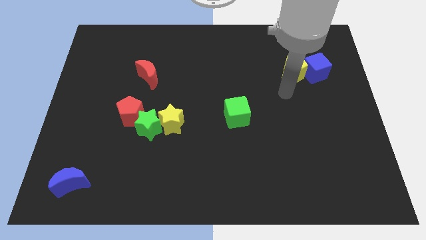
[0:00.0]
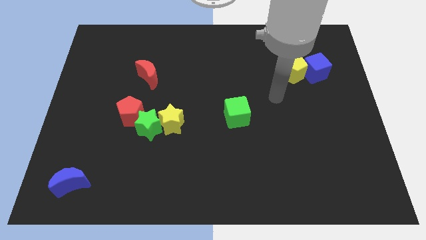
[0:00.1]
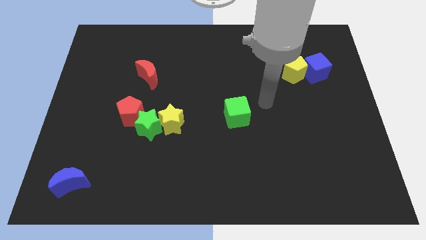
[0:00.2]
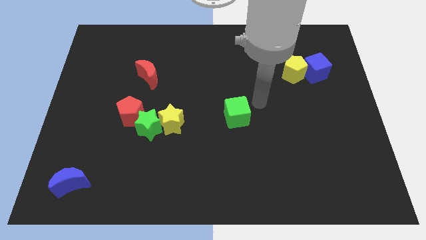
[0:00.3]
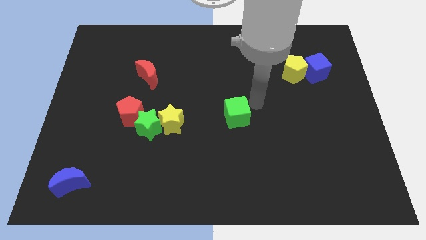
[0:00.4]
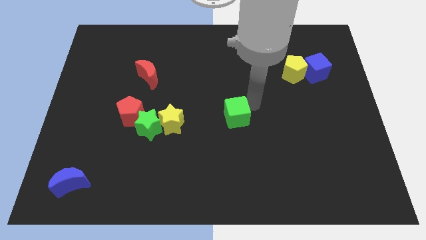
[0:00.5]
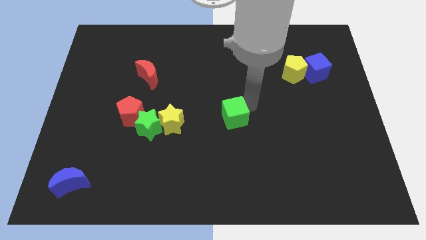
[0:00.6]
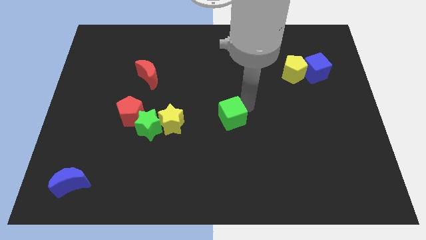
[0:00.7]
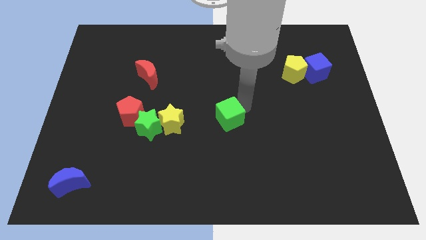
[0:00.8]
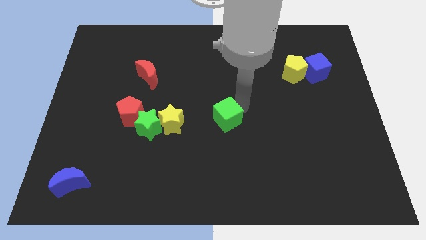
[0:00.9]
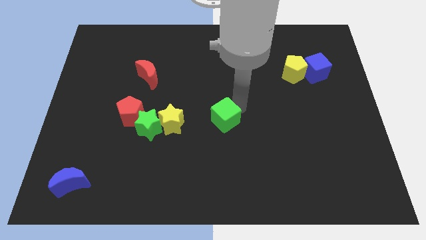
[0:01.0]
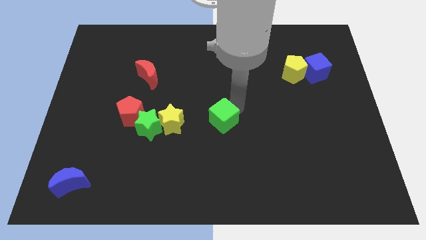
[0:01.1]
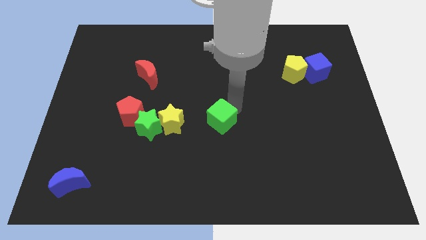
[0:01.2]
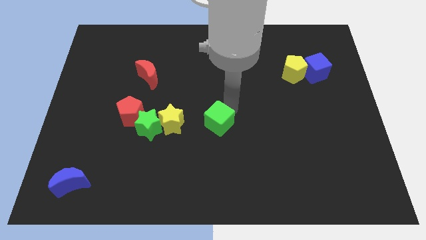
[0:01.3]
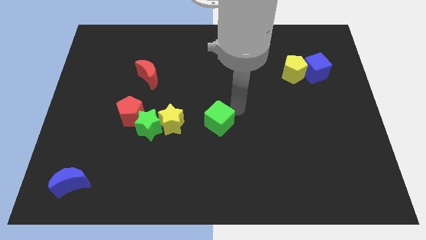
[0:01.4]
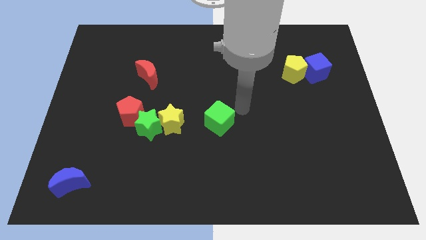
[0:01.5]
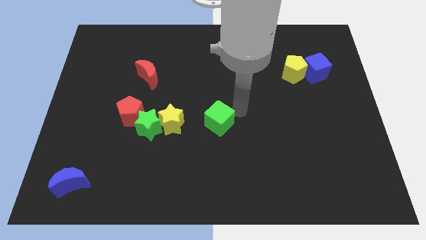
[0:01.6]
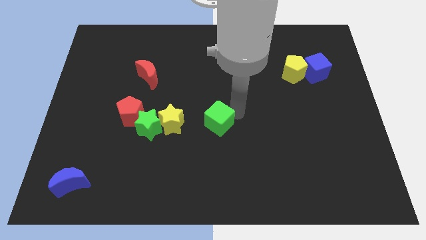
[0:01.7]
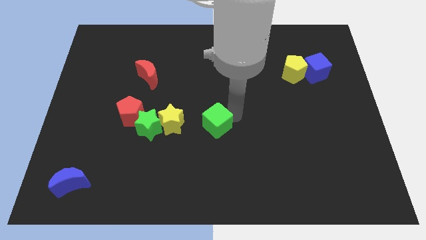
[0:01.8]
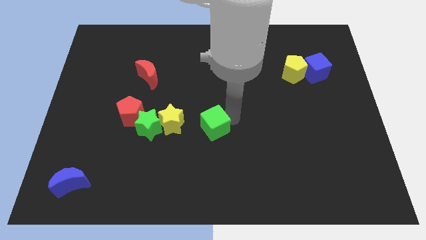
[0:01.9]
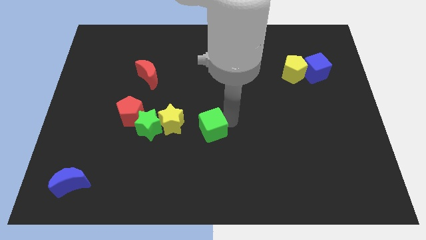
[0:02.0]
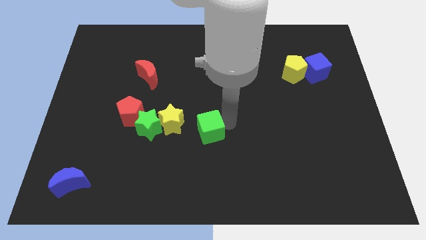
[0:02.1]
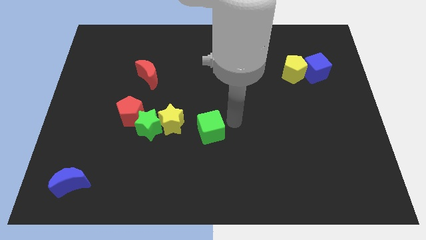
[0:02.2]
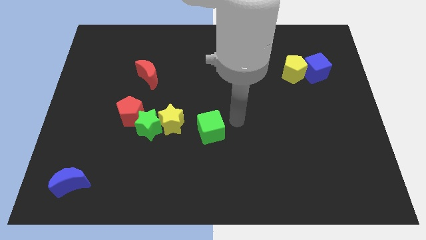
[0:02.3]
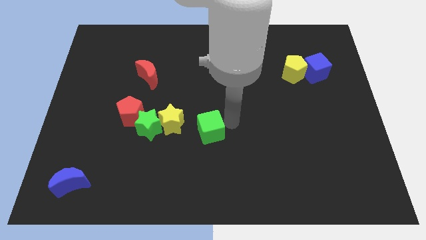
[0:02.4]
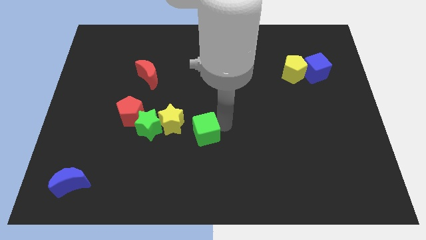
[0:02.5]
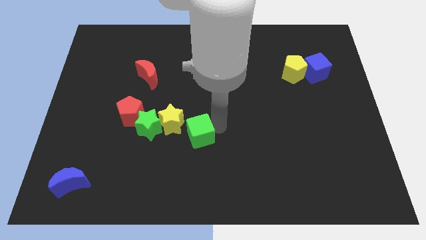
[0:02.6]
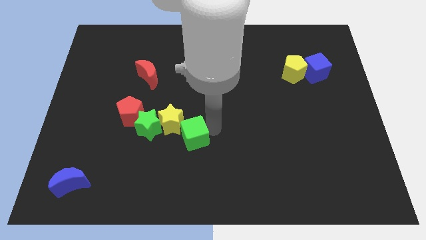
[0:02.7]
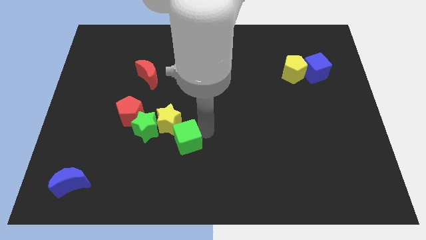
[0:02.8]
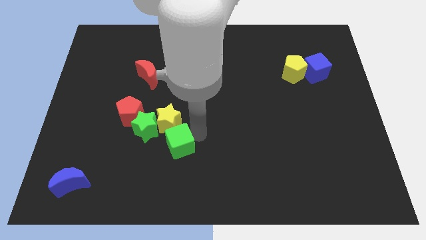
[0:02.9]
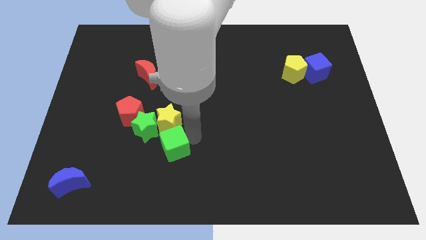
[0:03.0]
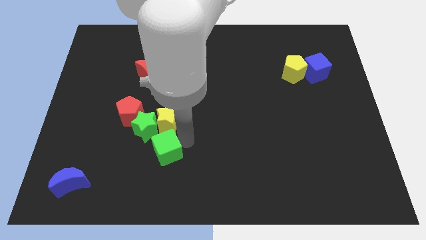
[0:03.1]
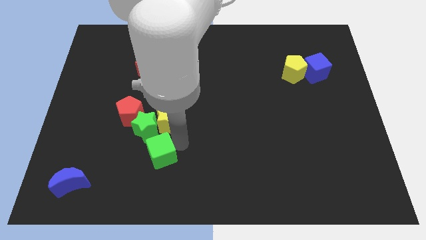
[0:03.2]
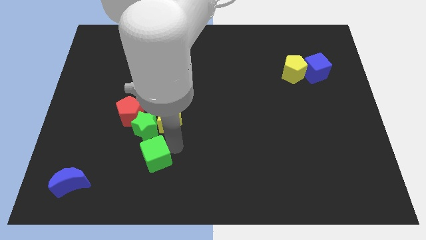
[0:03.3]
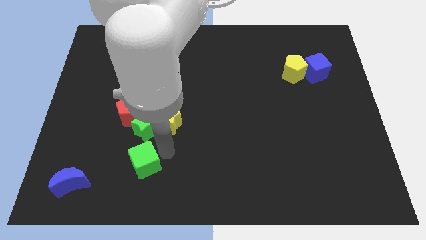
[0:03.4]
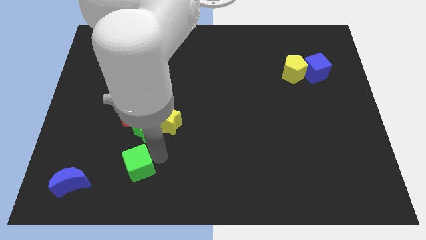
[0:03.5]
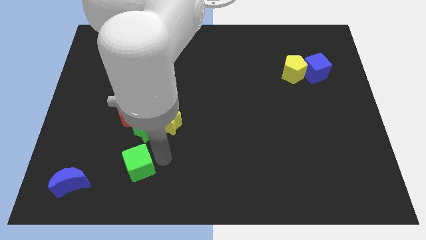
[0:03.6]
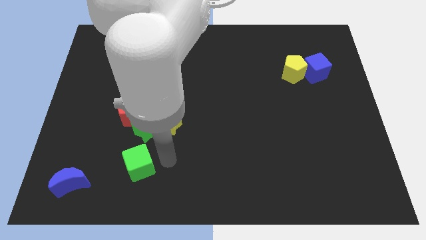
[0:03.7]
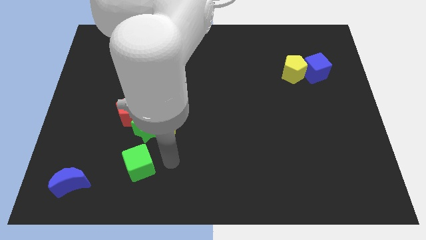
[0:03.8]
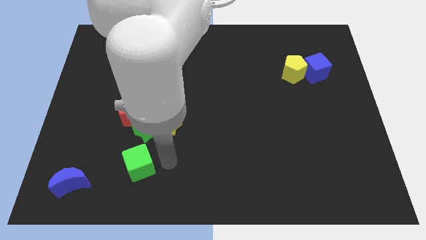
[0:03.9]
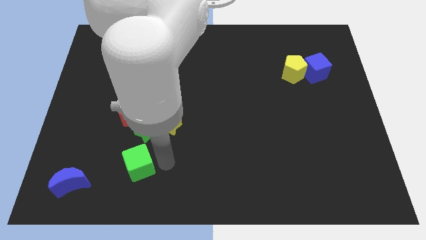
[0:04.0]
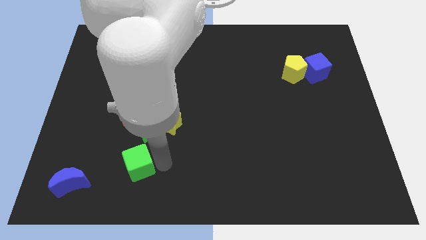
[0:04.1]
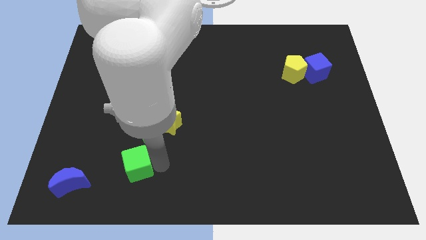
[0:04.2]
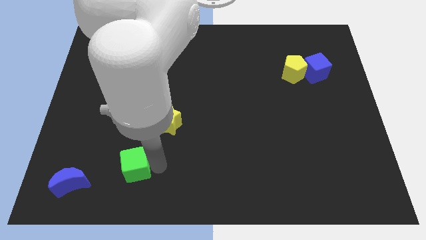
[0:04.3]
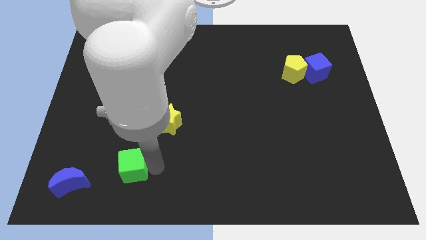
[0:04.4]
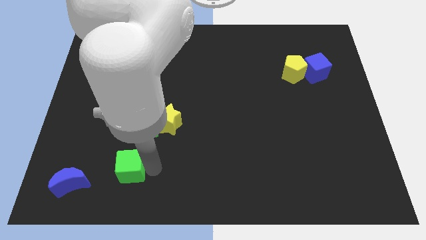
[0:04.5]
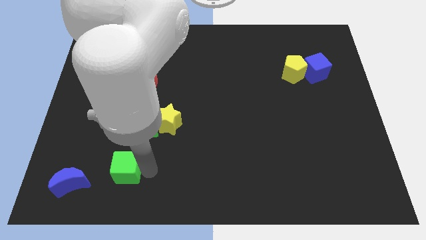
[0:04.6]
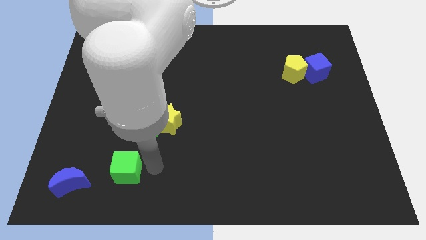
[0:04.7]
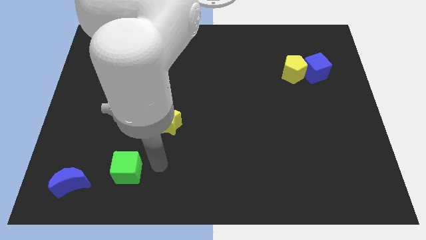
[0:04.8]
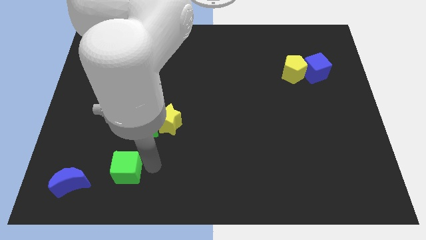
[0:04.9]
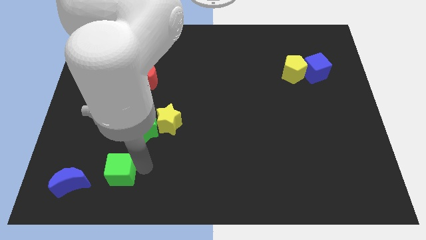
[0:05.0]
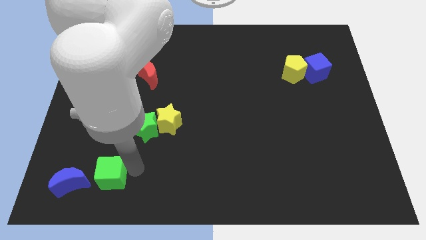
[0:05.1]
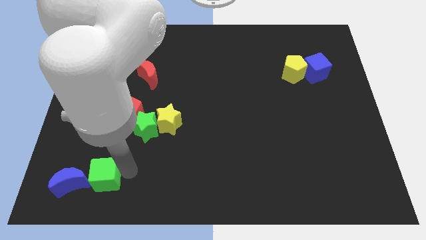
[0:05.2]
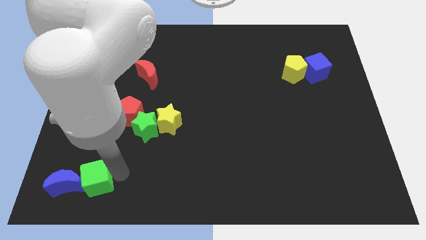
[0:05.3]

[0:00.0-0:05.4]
push the green cube to the blue moon

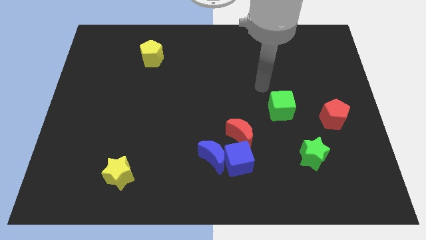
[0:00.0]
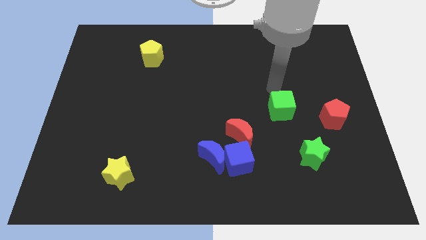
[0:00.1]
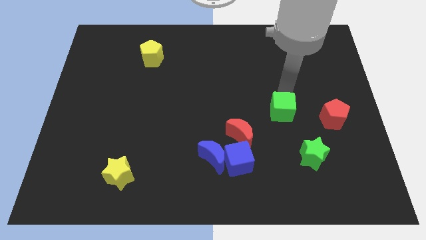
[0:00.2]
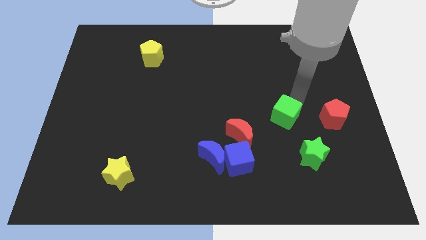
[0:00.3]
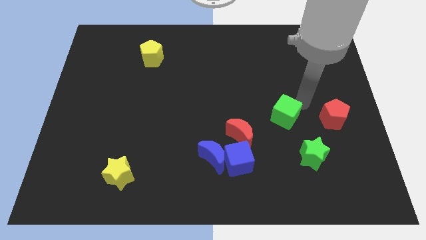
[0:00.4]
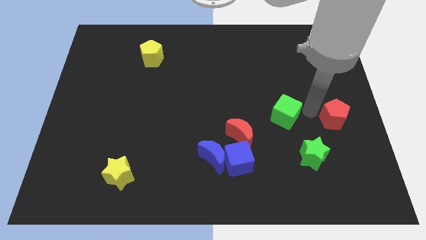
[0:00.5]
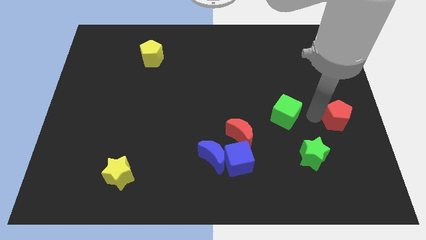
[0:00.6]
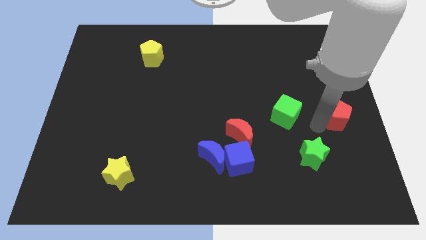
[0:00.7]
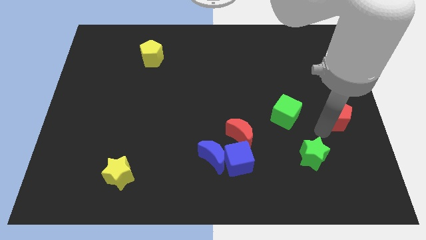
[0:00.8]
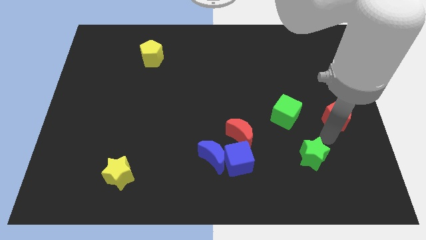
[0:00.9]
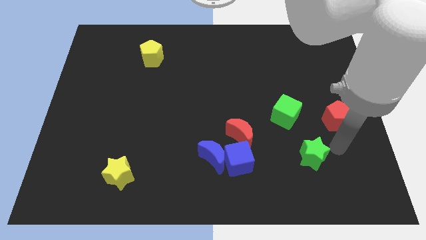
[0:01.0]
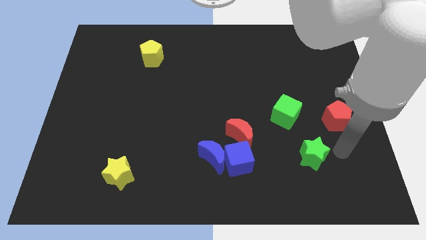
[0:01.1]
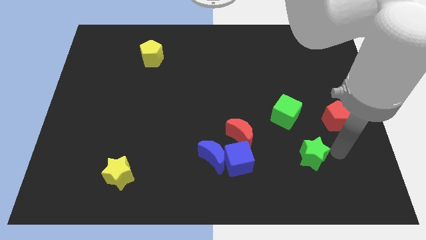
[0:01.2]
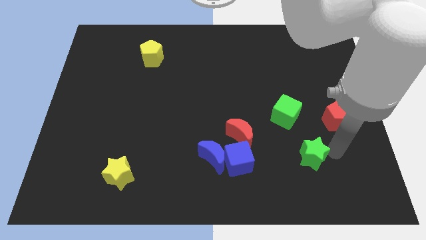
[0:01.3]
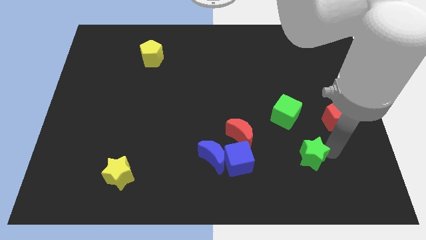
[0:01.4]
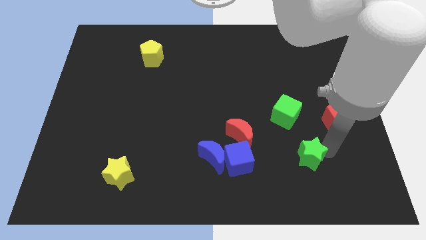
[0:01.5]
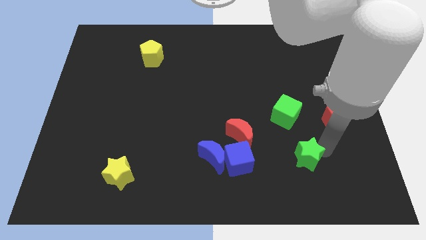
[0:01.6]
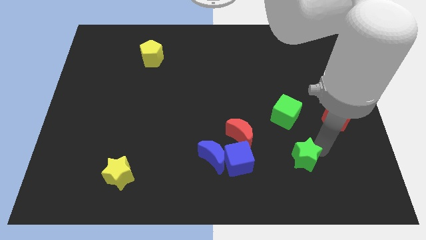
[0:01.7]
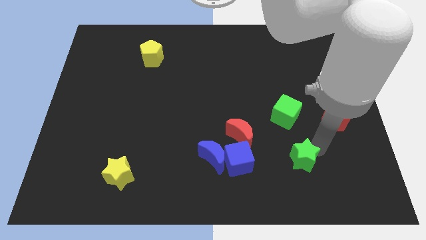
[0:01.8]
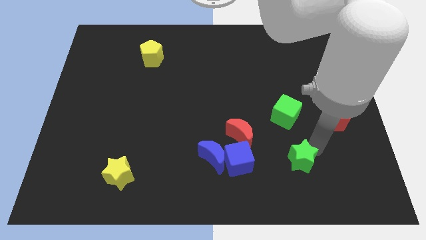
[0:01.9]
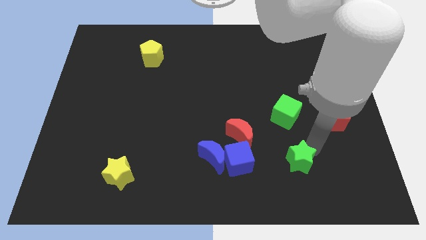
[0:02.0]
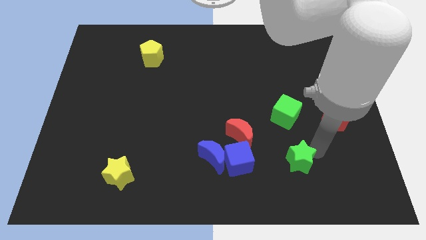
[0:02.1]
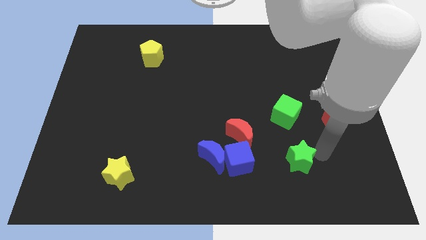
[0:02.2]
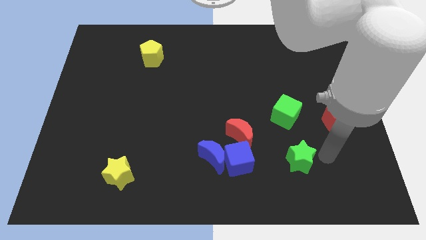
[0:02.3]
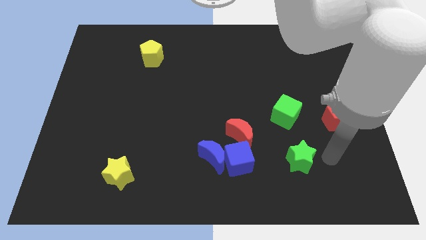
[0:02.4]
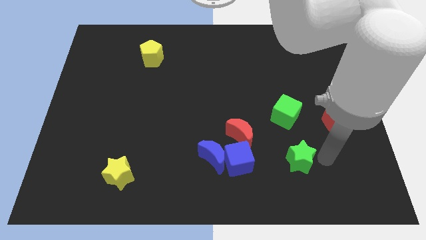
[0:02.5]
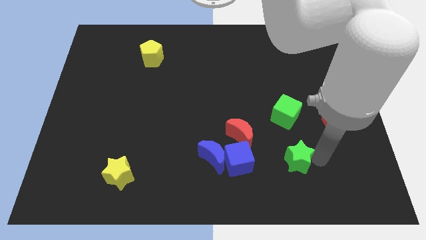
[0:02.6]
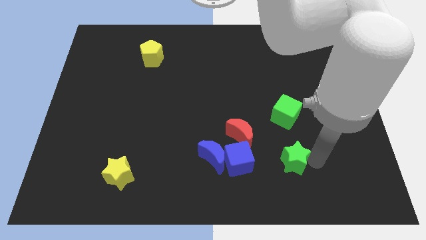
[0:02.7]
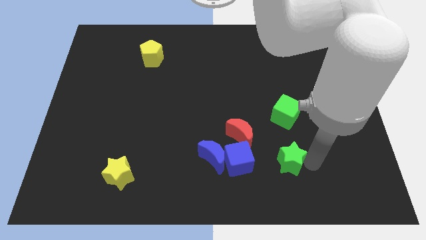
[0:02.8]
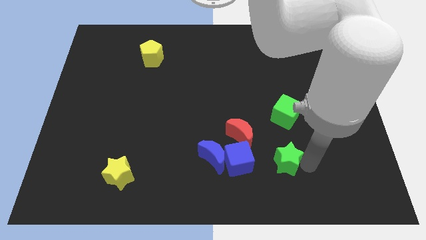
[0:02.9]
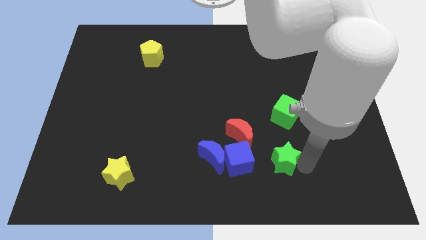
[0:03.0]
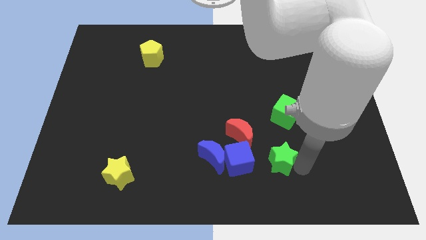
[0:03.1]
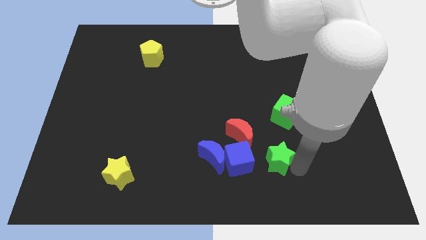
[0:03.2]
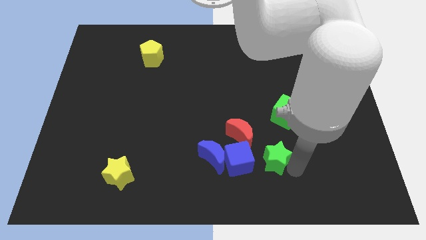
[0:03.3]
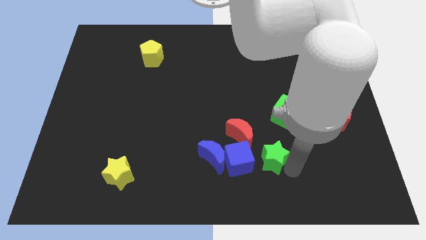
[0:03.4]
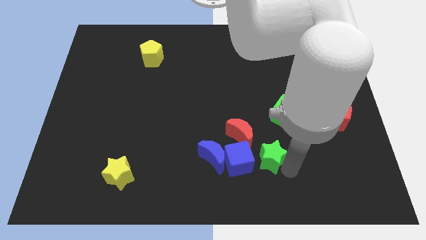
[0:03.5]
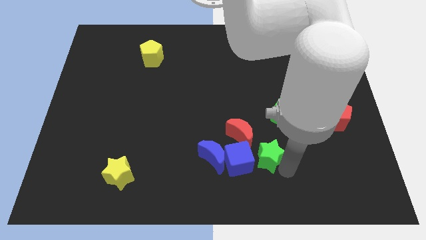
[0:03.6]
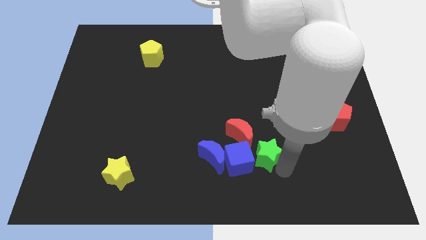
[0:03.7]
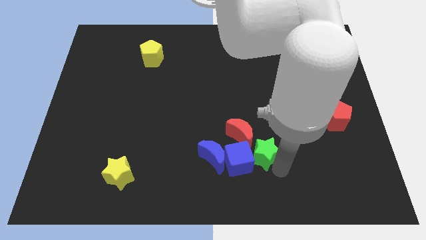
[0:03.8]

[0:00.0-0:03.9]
put the green star towards the blue cube
